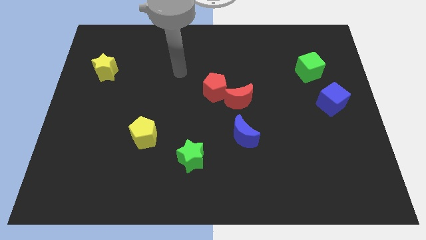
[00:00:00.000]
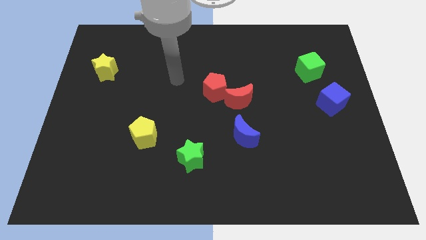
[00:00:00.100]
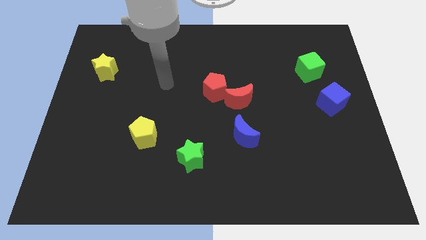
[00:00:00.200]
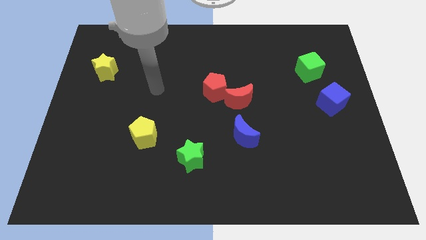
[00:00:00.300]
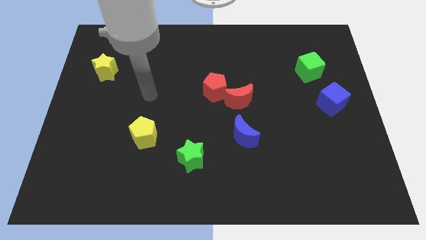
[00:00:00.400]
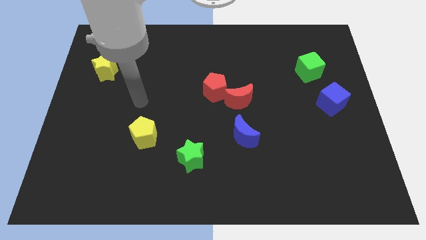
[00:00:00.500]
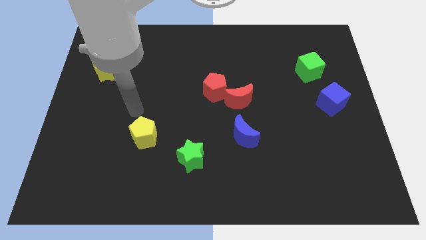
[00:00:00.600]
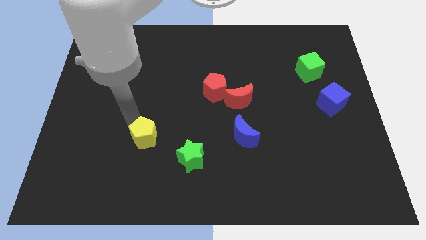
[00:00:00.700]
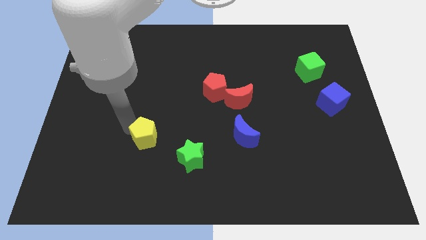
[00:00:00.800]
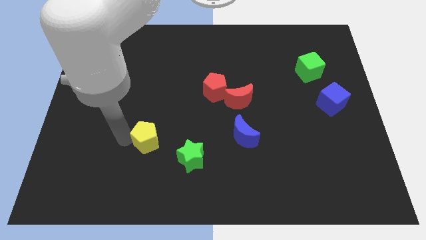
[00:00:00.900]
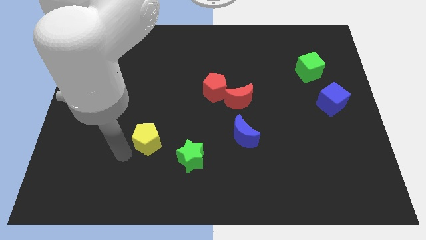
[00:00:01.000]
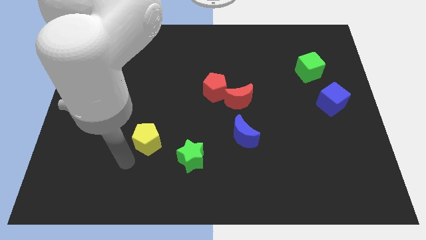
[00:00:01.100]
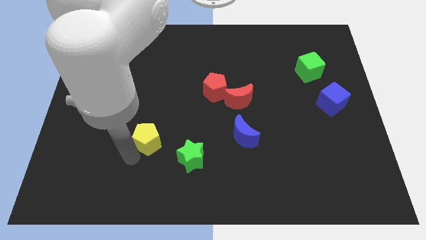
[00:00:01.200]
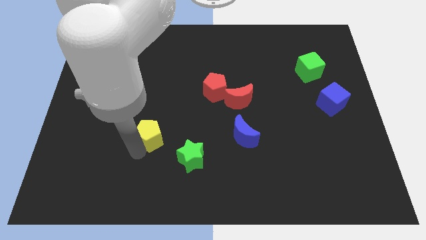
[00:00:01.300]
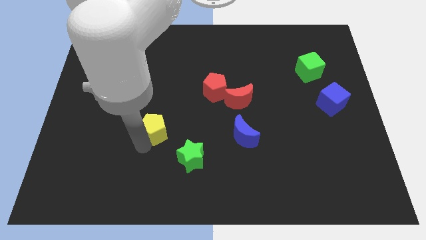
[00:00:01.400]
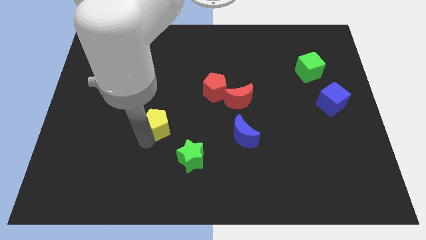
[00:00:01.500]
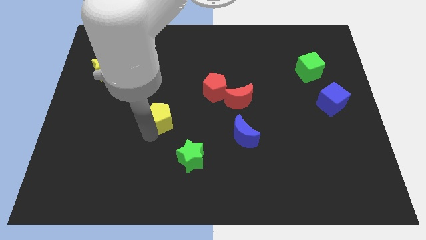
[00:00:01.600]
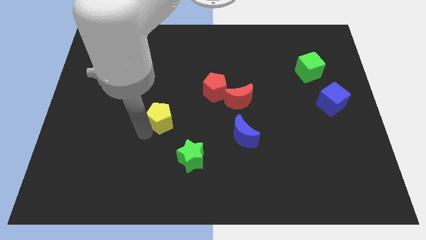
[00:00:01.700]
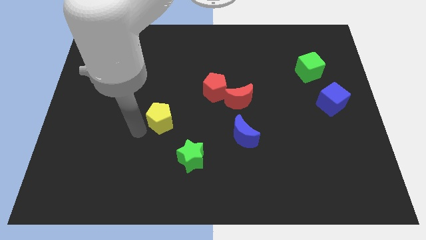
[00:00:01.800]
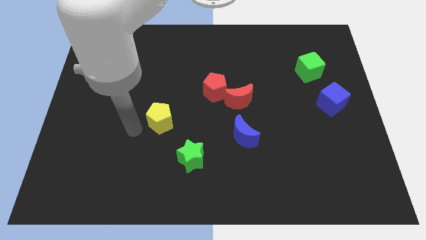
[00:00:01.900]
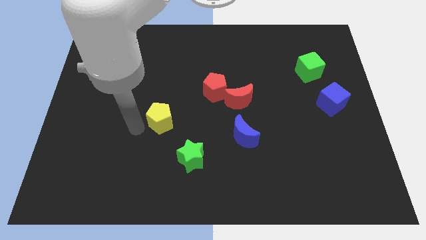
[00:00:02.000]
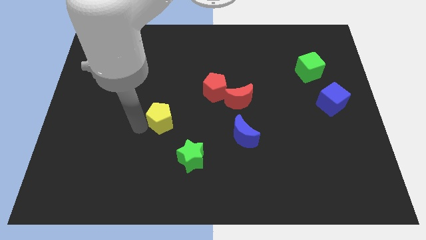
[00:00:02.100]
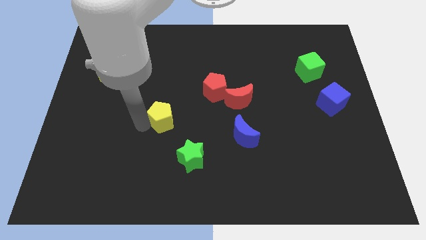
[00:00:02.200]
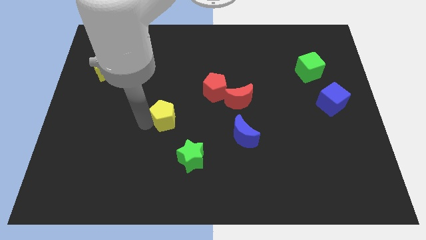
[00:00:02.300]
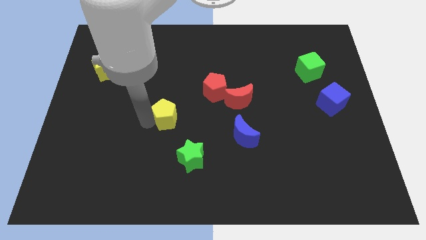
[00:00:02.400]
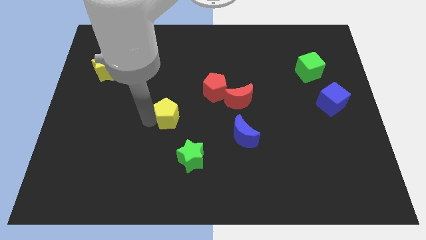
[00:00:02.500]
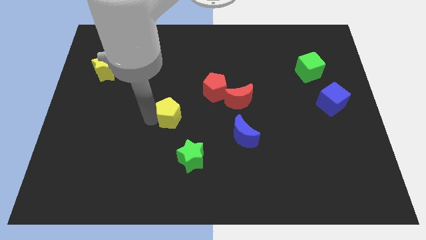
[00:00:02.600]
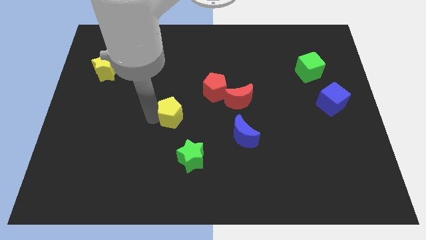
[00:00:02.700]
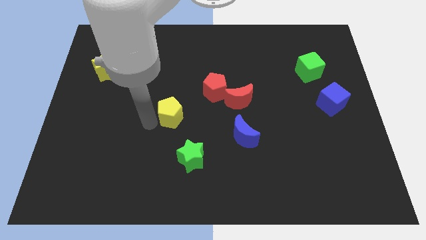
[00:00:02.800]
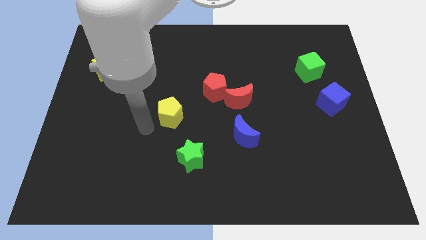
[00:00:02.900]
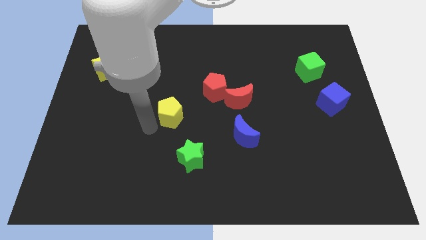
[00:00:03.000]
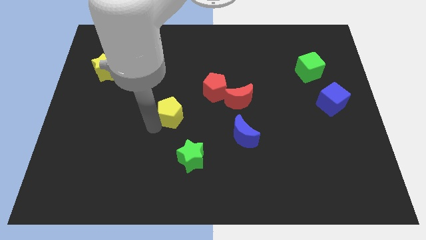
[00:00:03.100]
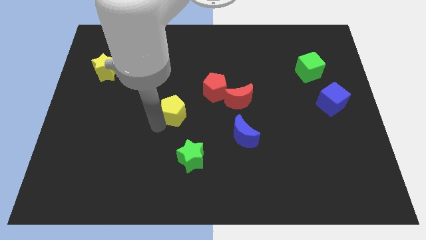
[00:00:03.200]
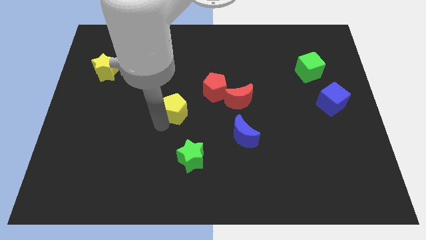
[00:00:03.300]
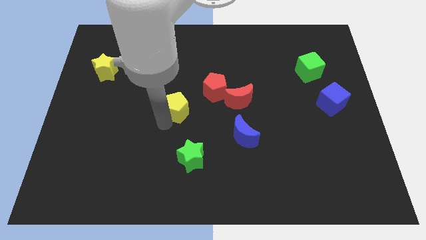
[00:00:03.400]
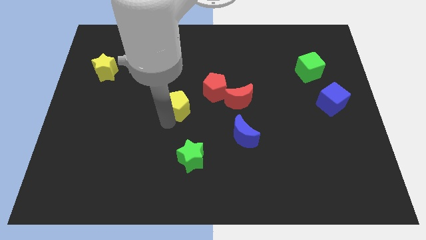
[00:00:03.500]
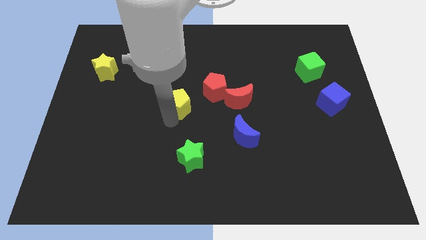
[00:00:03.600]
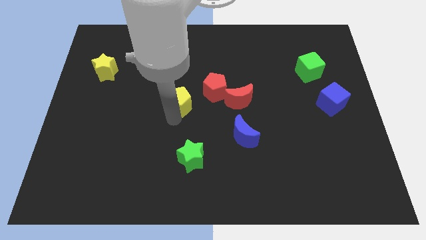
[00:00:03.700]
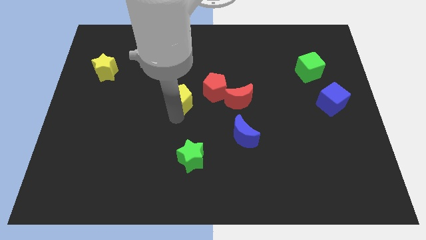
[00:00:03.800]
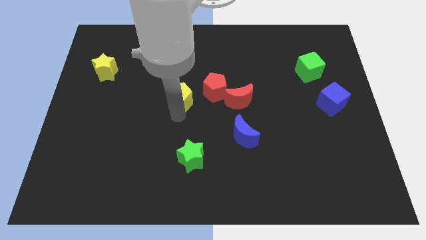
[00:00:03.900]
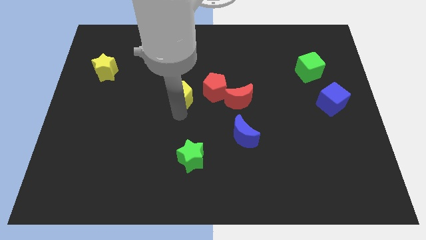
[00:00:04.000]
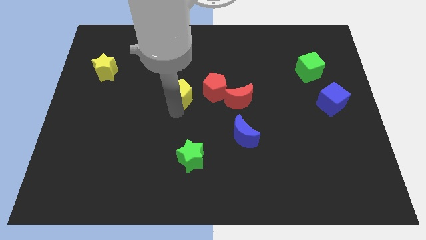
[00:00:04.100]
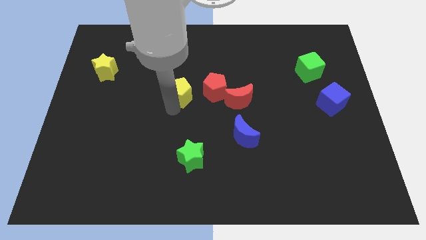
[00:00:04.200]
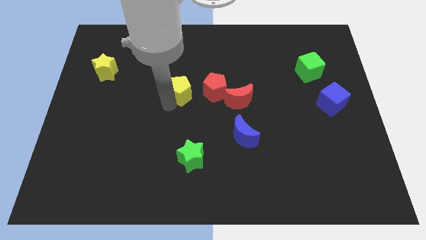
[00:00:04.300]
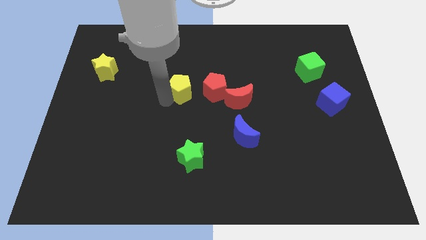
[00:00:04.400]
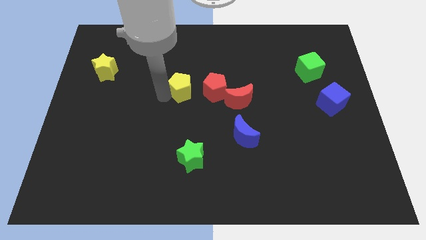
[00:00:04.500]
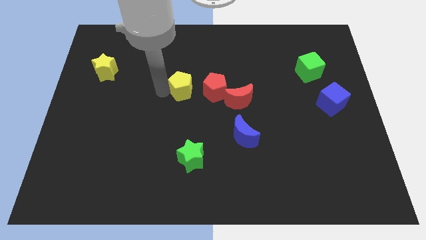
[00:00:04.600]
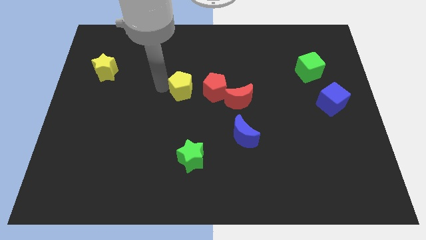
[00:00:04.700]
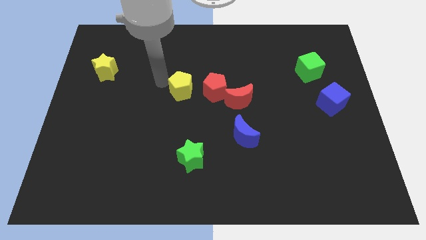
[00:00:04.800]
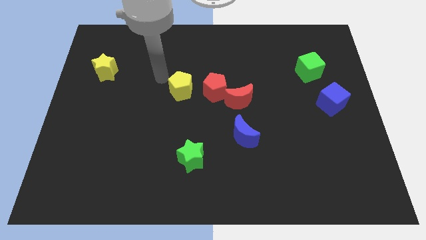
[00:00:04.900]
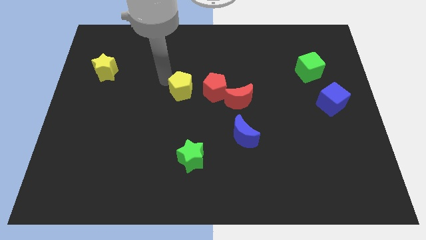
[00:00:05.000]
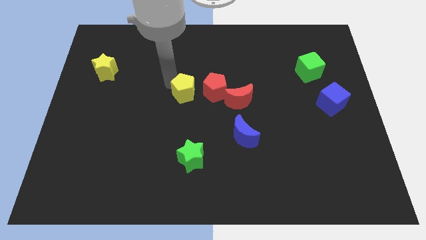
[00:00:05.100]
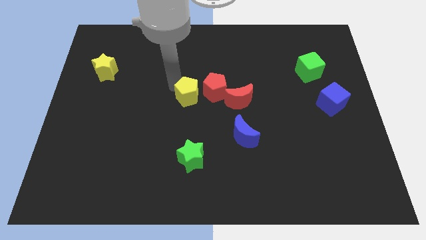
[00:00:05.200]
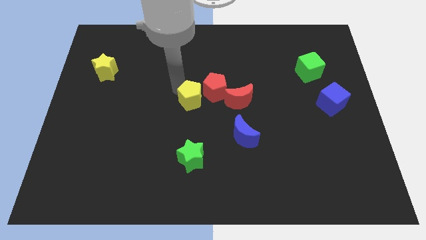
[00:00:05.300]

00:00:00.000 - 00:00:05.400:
push the yellow pentagon next to the red pentagon

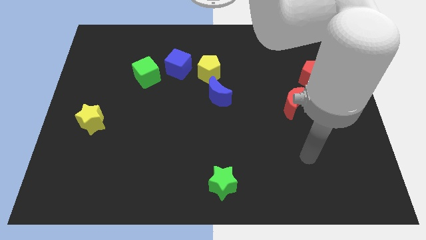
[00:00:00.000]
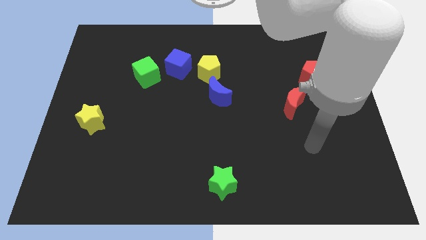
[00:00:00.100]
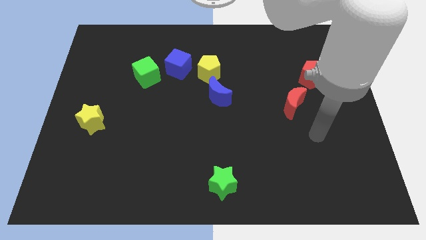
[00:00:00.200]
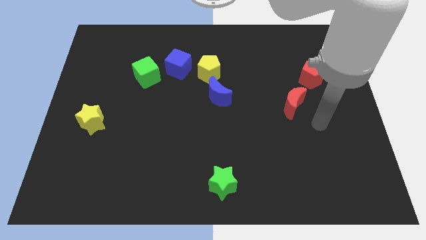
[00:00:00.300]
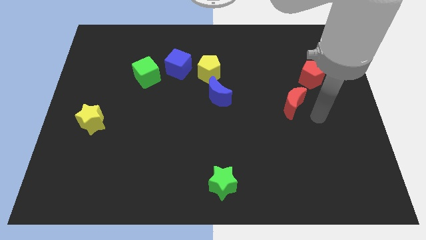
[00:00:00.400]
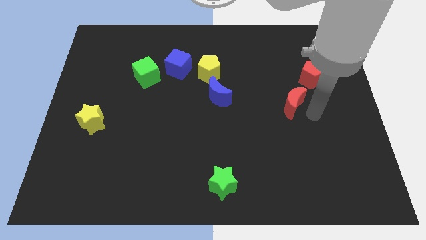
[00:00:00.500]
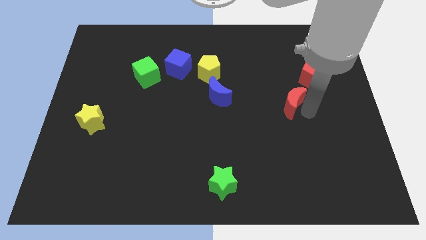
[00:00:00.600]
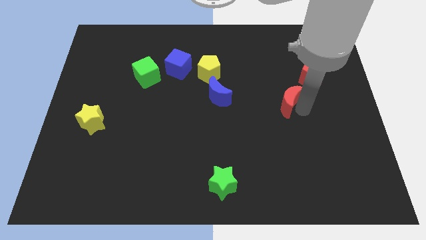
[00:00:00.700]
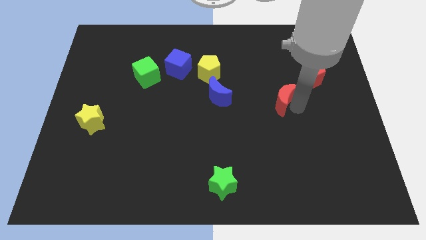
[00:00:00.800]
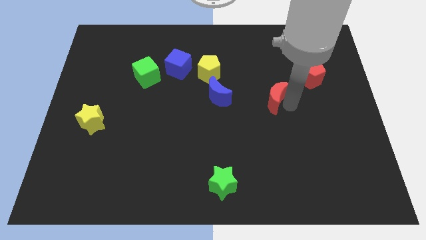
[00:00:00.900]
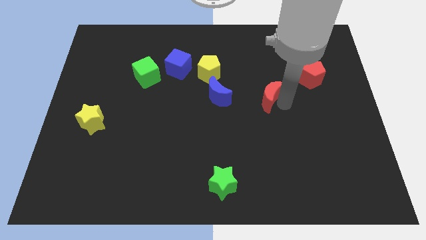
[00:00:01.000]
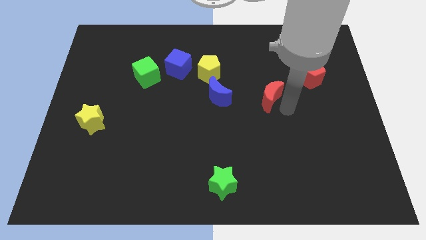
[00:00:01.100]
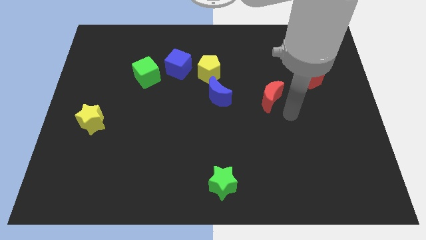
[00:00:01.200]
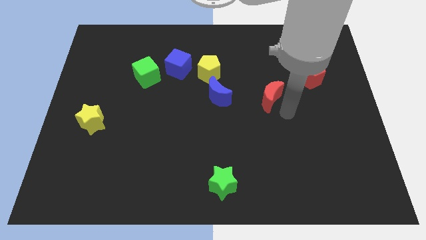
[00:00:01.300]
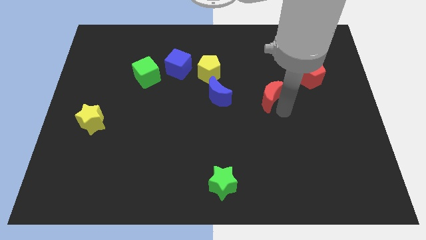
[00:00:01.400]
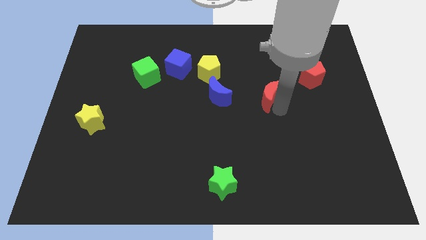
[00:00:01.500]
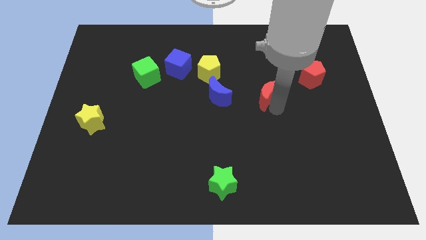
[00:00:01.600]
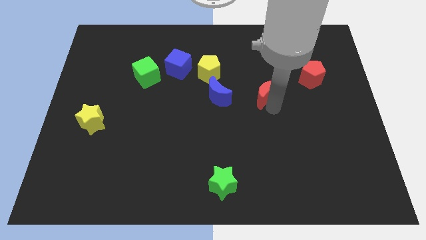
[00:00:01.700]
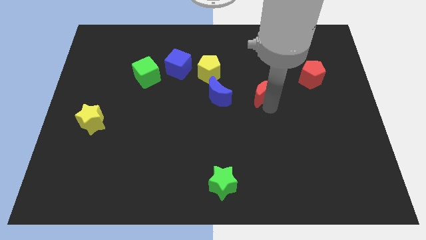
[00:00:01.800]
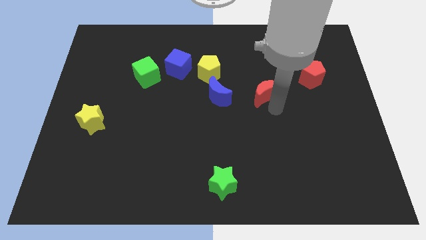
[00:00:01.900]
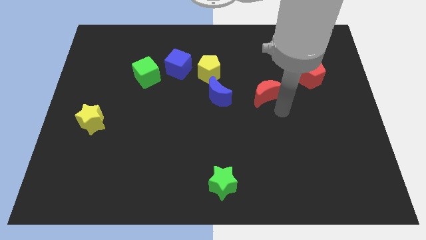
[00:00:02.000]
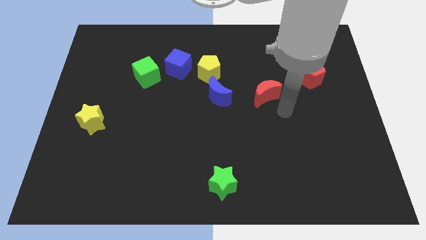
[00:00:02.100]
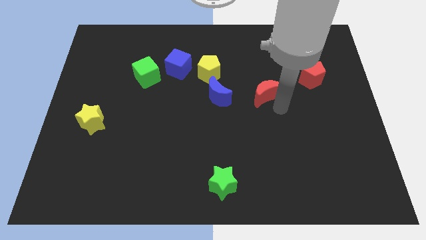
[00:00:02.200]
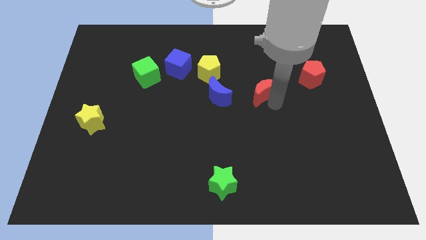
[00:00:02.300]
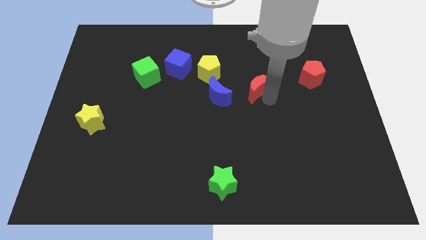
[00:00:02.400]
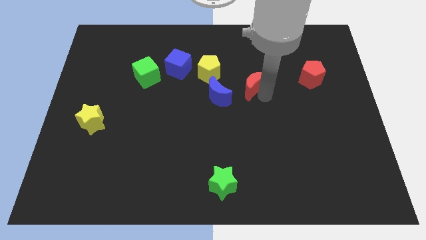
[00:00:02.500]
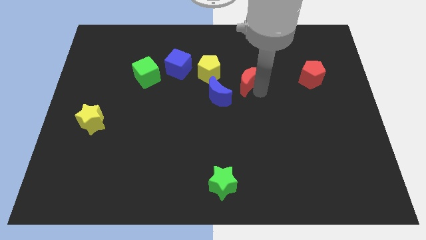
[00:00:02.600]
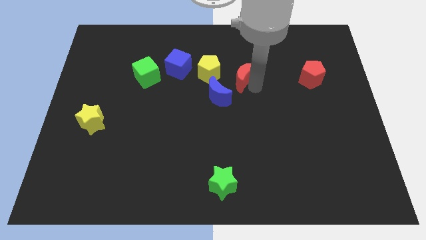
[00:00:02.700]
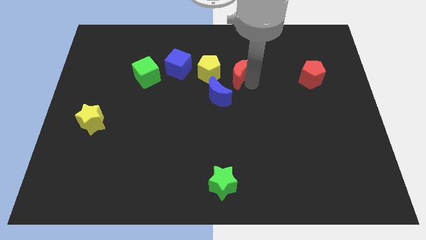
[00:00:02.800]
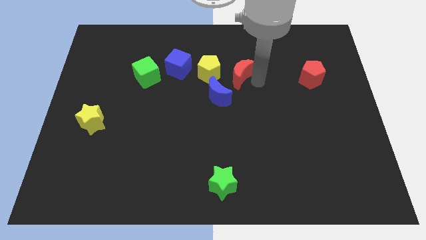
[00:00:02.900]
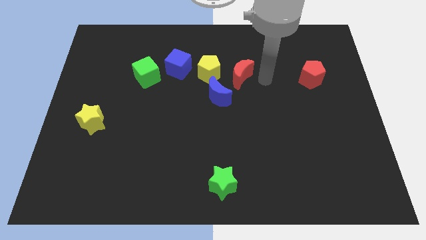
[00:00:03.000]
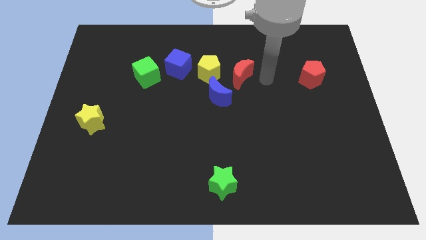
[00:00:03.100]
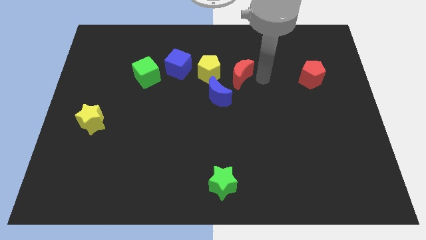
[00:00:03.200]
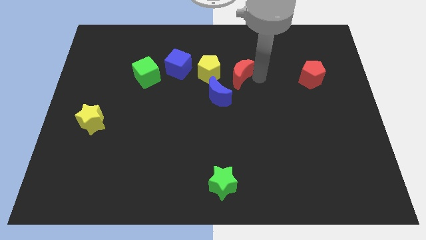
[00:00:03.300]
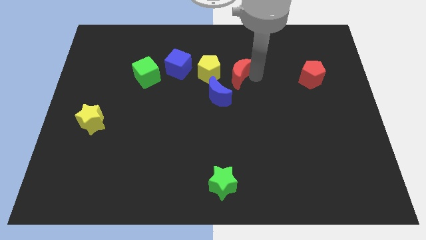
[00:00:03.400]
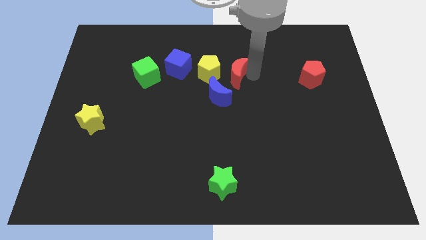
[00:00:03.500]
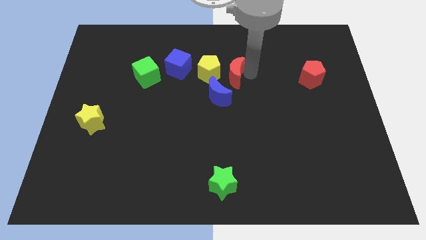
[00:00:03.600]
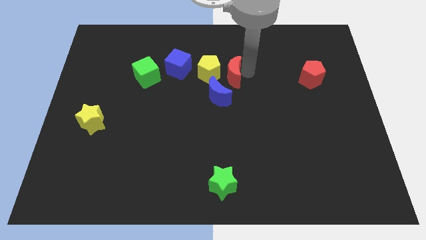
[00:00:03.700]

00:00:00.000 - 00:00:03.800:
push the red moon next to the yellow pentagon
